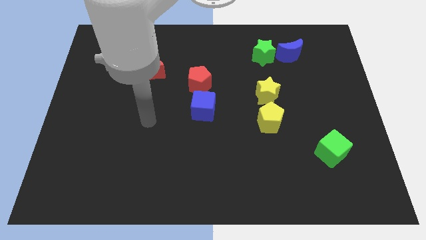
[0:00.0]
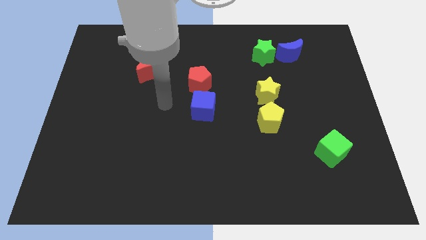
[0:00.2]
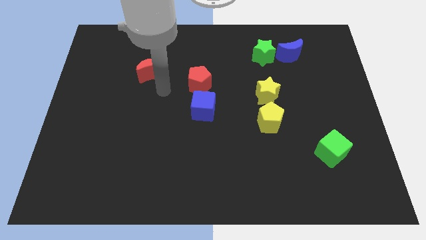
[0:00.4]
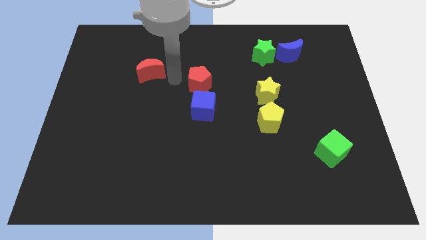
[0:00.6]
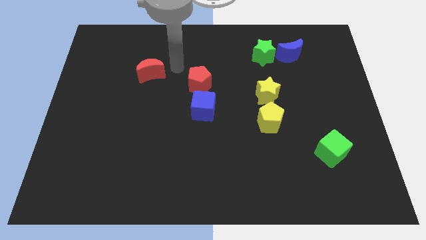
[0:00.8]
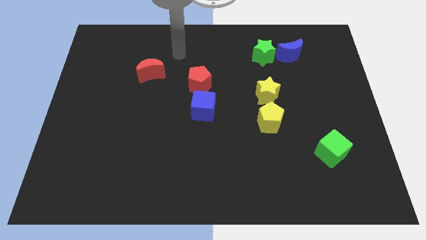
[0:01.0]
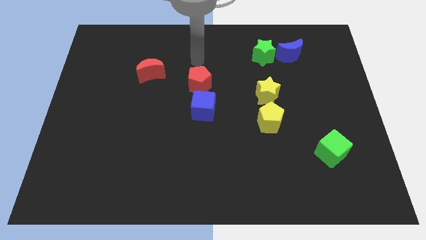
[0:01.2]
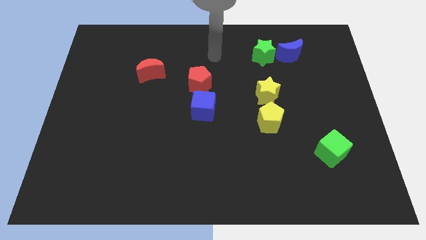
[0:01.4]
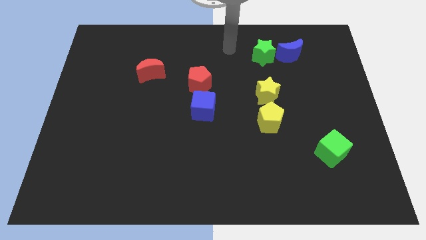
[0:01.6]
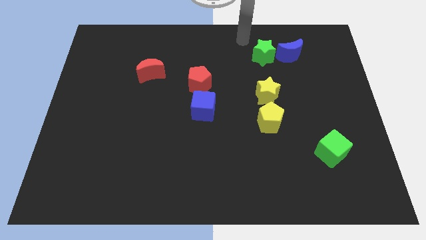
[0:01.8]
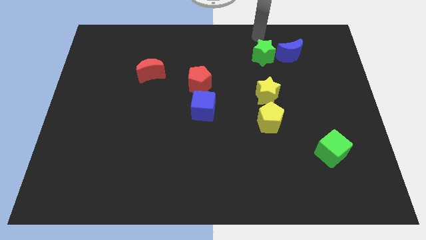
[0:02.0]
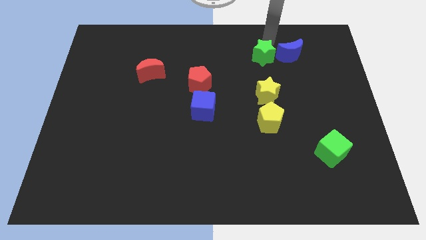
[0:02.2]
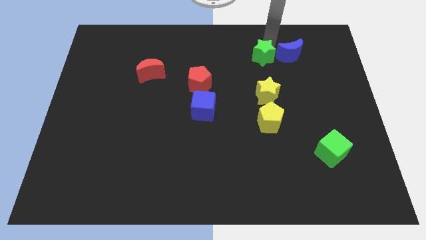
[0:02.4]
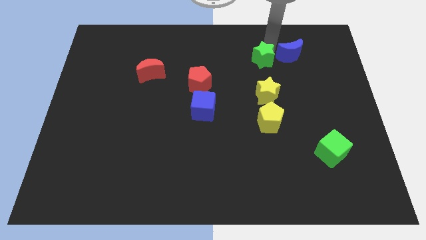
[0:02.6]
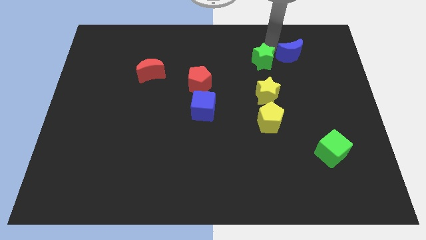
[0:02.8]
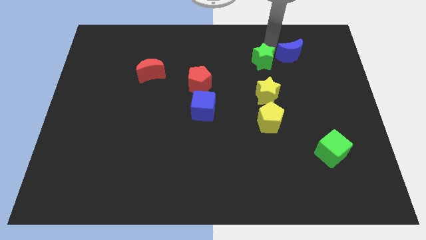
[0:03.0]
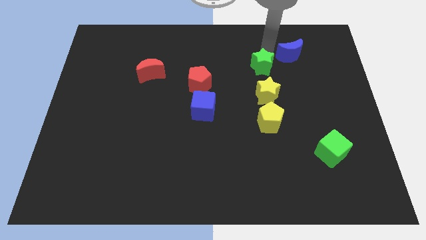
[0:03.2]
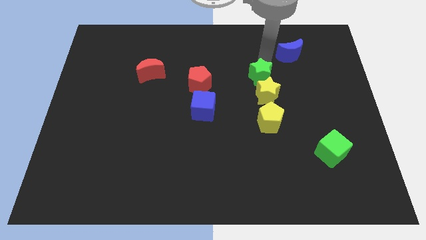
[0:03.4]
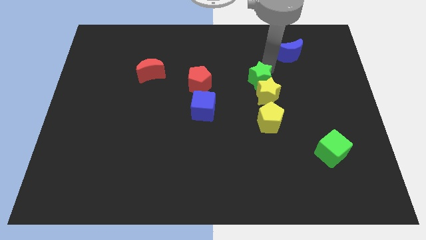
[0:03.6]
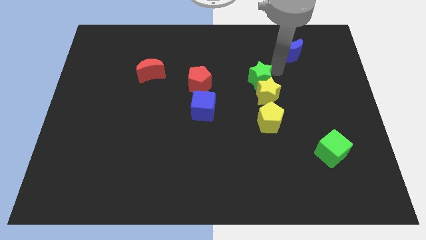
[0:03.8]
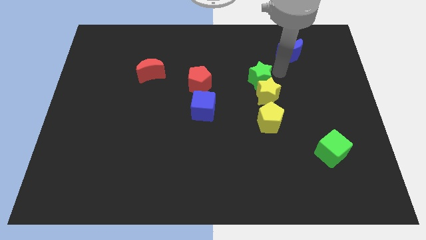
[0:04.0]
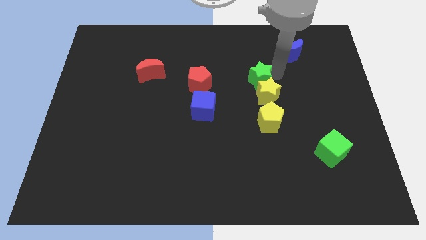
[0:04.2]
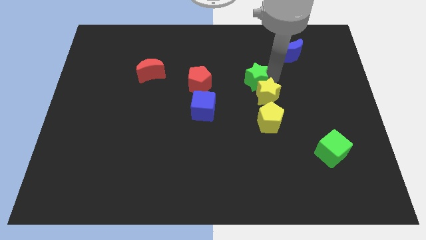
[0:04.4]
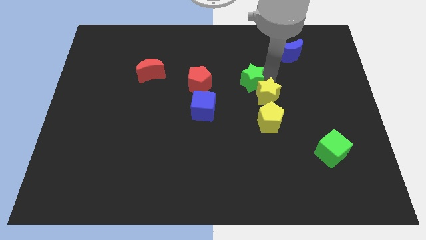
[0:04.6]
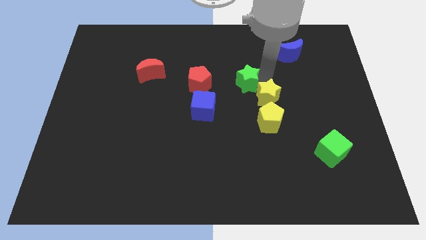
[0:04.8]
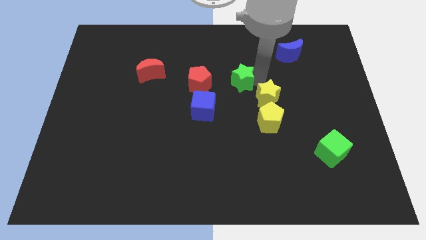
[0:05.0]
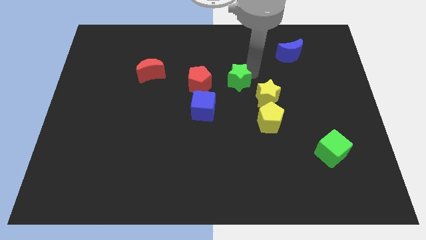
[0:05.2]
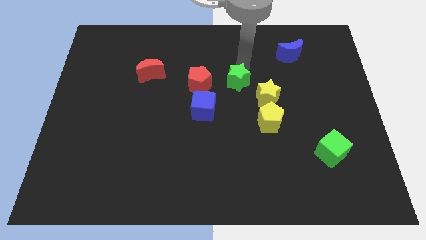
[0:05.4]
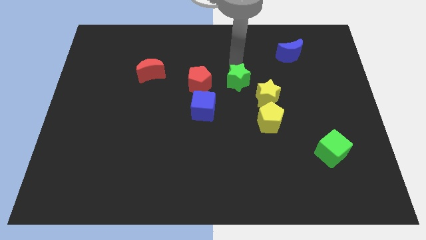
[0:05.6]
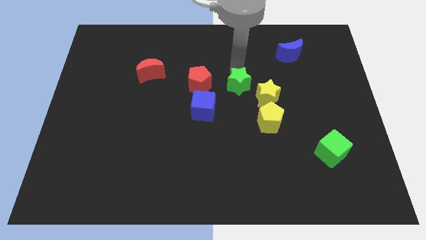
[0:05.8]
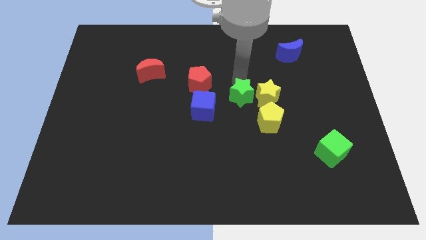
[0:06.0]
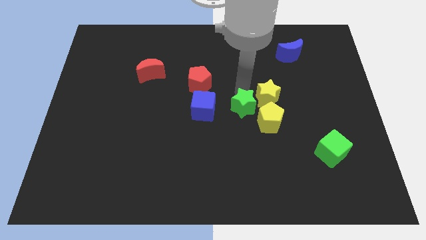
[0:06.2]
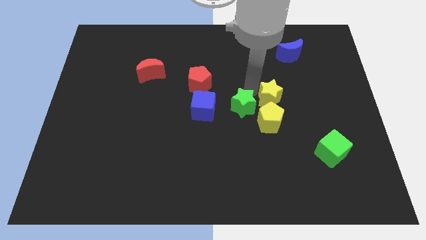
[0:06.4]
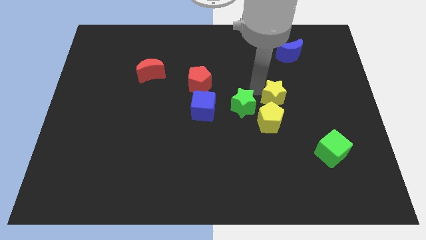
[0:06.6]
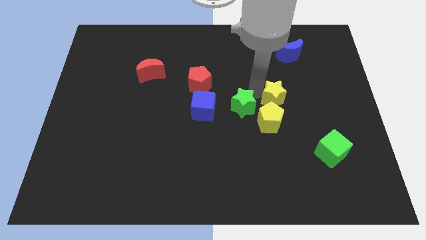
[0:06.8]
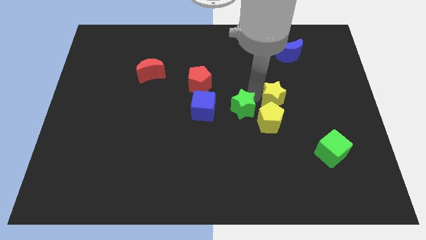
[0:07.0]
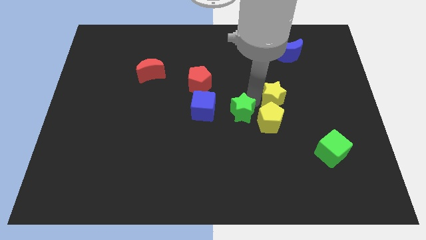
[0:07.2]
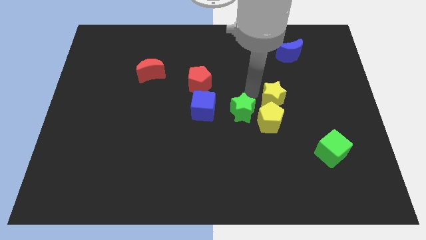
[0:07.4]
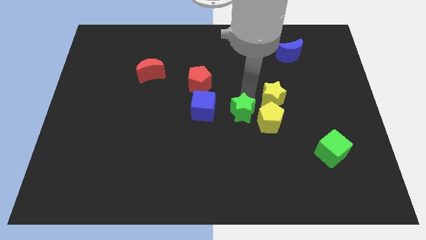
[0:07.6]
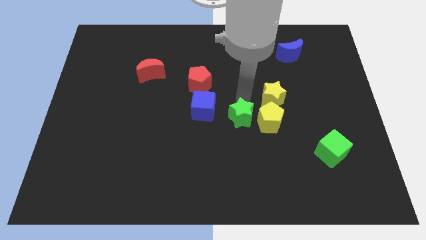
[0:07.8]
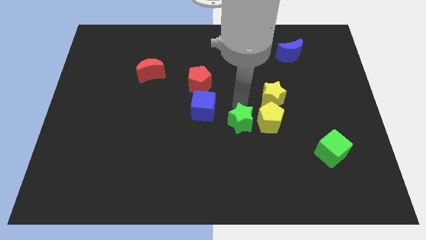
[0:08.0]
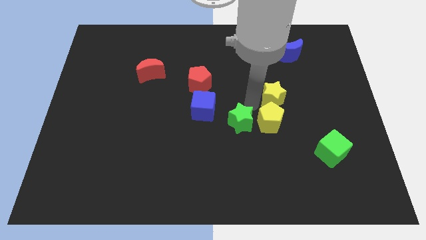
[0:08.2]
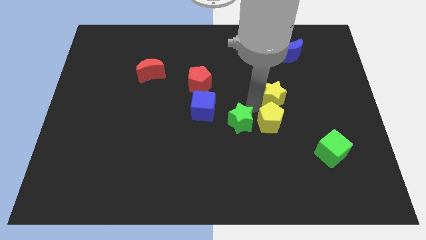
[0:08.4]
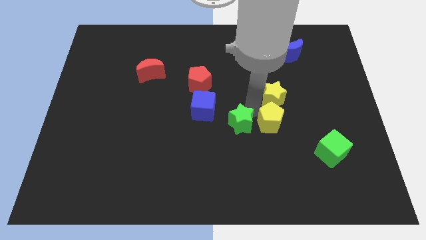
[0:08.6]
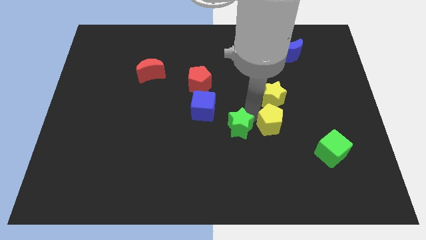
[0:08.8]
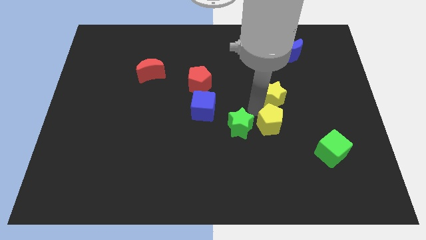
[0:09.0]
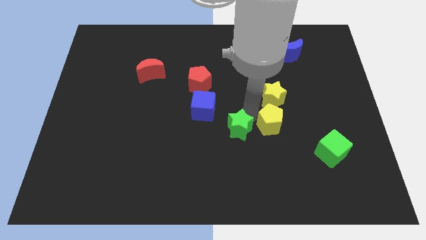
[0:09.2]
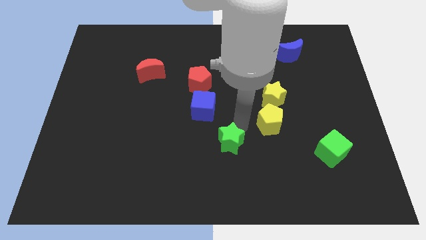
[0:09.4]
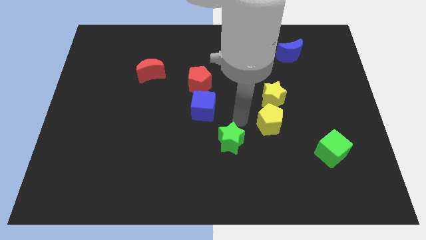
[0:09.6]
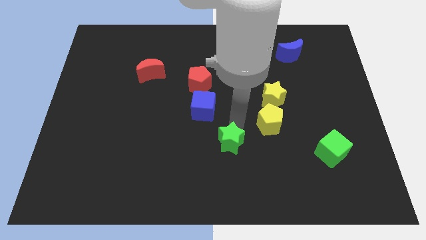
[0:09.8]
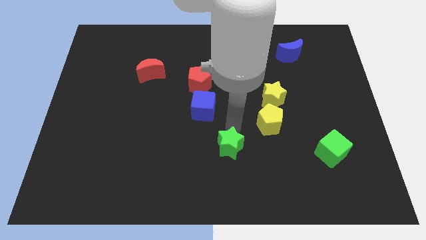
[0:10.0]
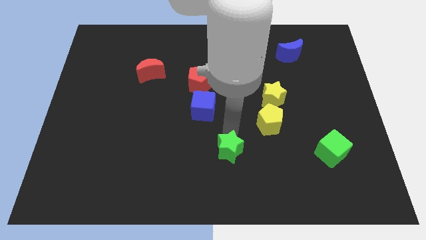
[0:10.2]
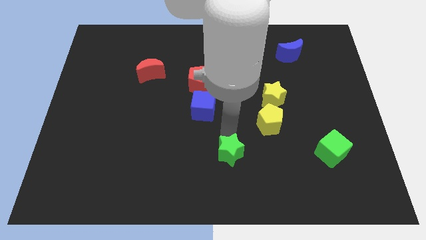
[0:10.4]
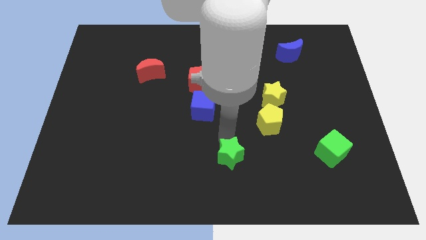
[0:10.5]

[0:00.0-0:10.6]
push the green star to the bottom side

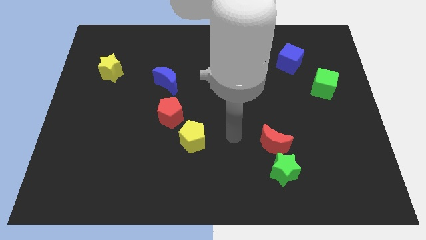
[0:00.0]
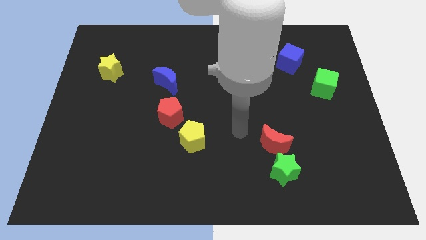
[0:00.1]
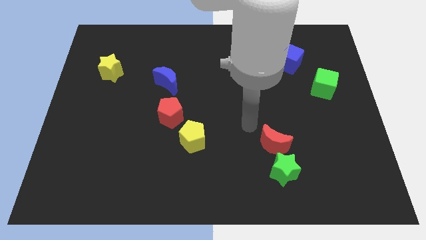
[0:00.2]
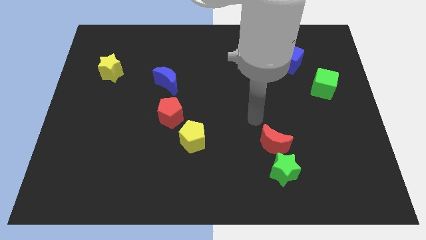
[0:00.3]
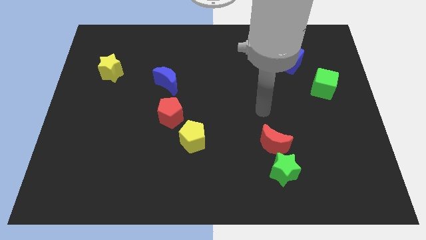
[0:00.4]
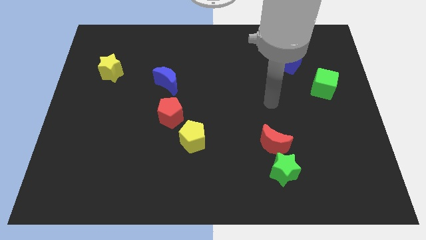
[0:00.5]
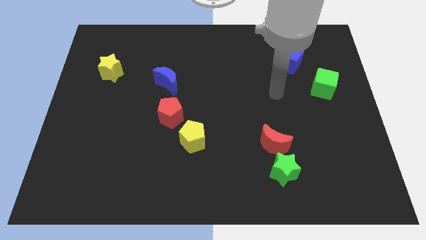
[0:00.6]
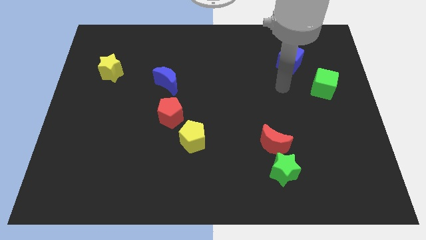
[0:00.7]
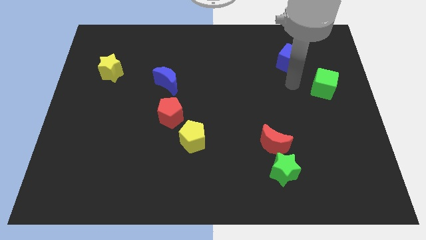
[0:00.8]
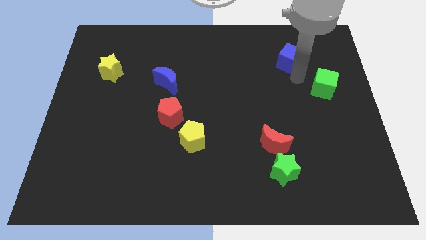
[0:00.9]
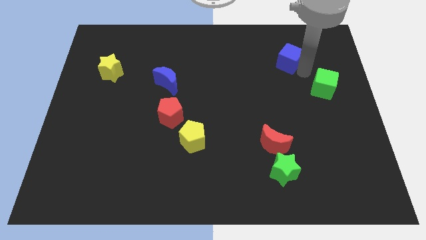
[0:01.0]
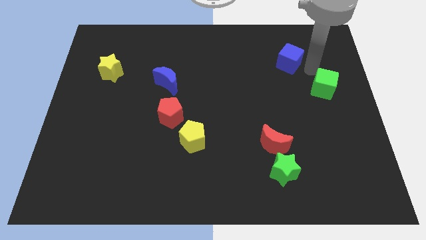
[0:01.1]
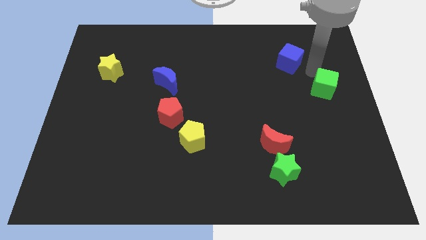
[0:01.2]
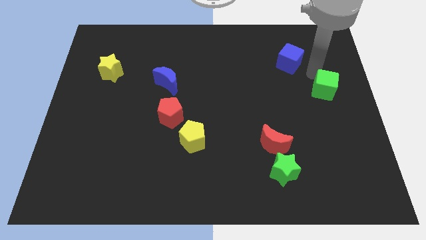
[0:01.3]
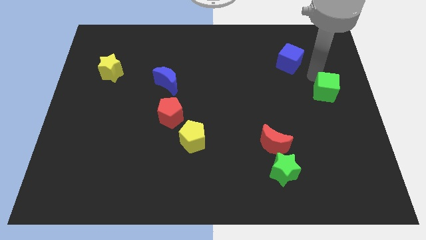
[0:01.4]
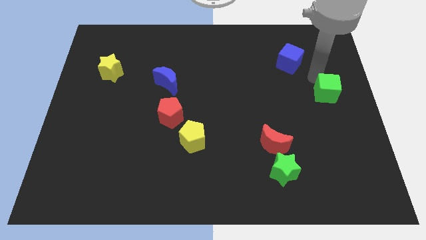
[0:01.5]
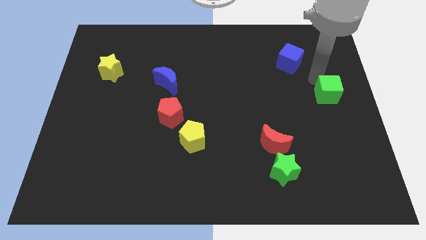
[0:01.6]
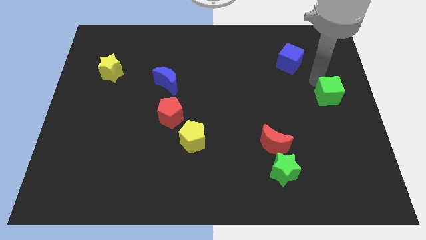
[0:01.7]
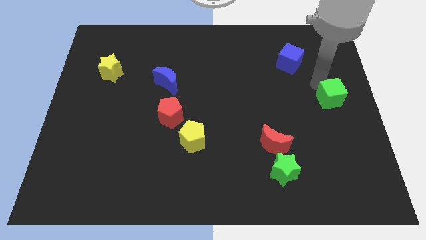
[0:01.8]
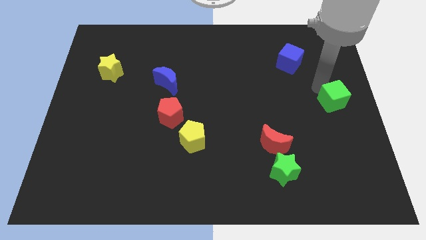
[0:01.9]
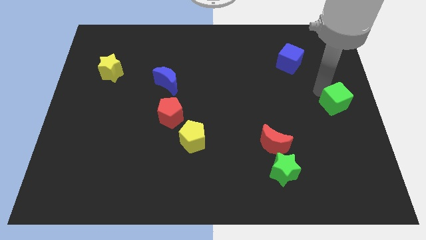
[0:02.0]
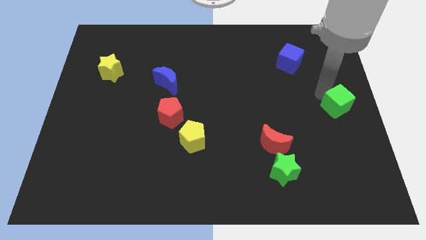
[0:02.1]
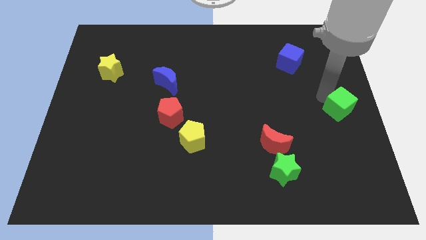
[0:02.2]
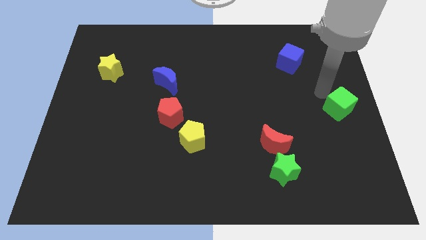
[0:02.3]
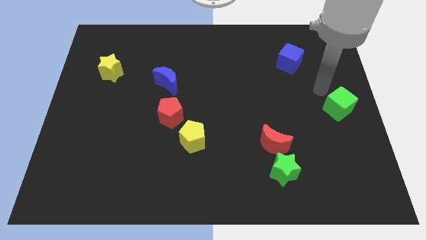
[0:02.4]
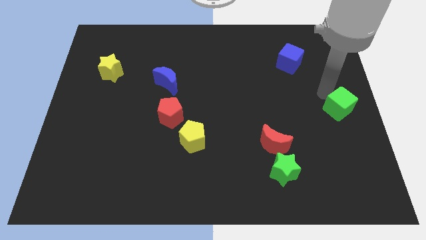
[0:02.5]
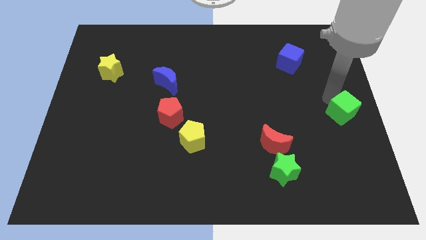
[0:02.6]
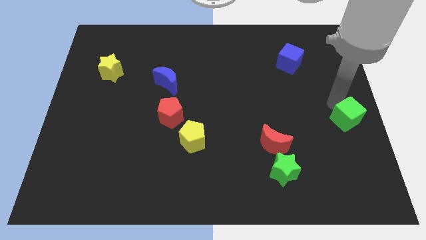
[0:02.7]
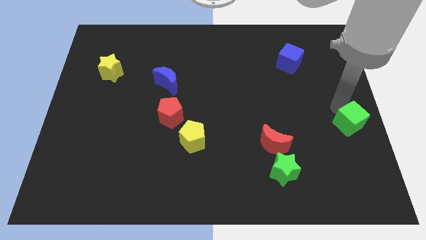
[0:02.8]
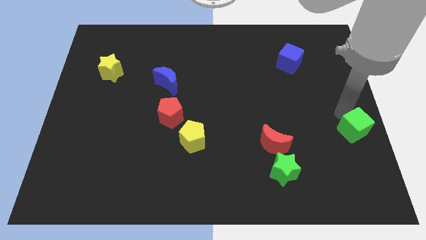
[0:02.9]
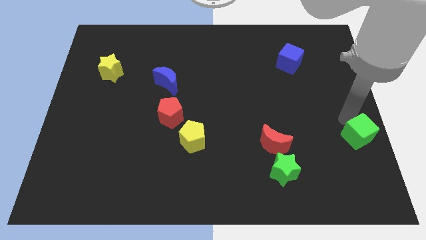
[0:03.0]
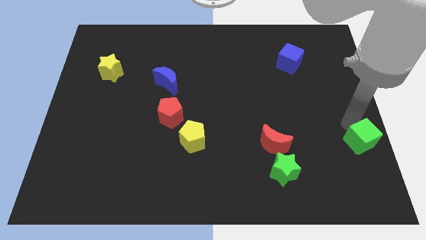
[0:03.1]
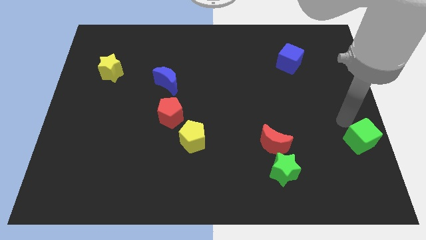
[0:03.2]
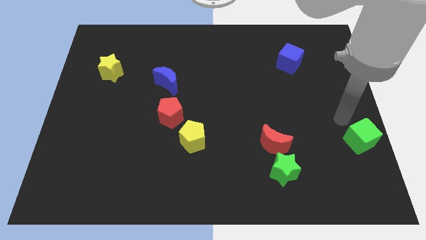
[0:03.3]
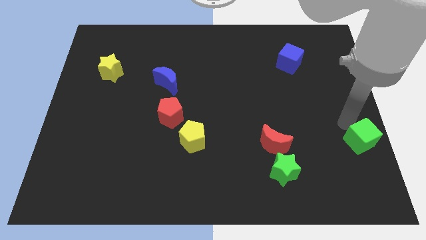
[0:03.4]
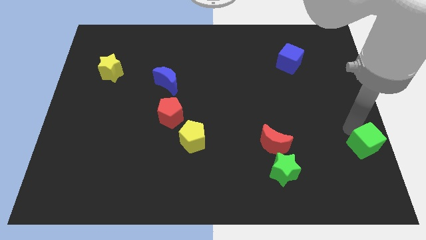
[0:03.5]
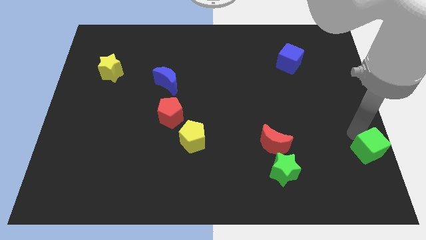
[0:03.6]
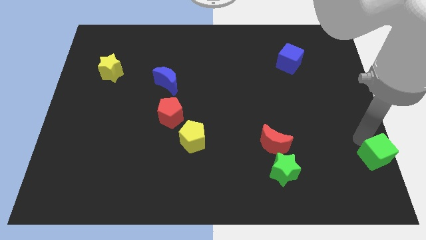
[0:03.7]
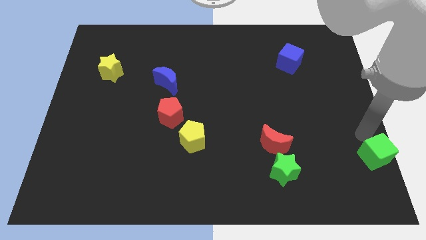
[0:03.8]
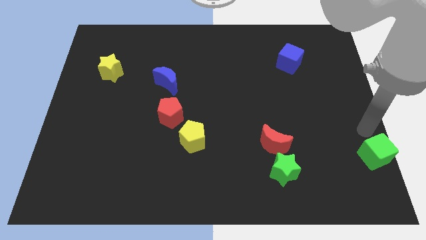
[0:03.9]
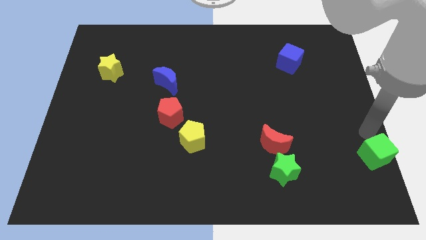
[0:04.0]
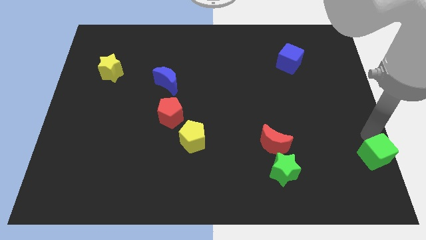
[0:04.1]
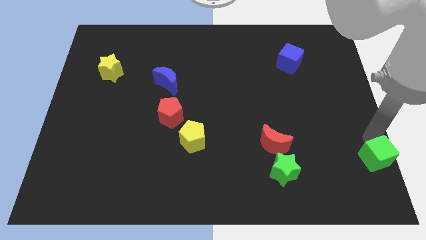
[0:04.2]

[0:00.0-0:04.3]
slide the green cube to the bottom right corner
